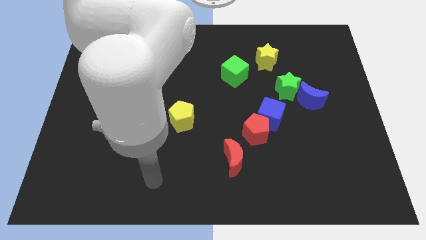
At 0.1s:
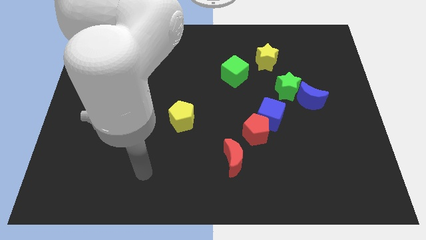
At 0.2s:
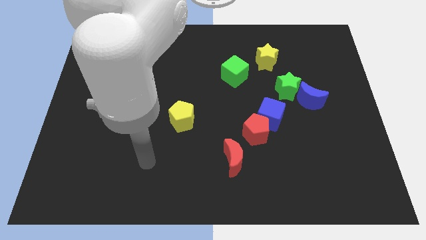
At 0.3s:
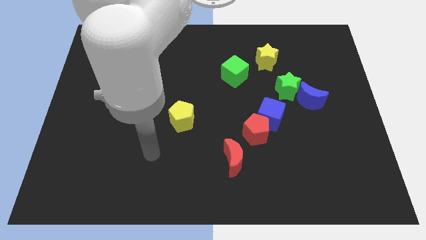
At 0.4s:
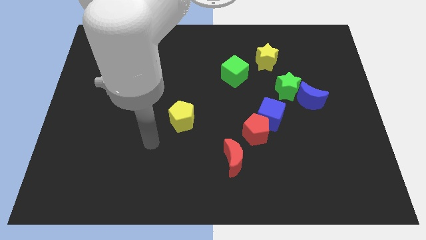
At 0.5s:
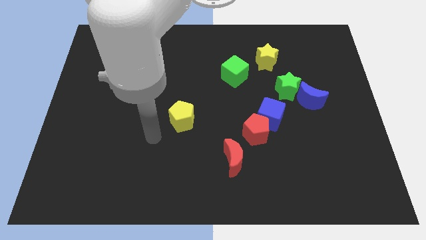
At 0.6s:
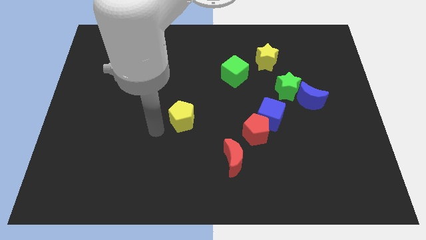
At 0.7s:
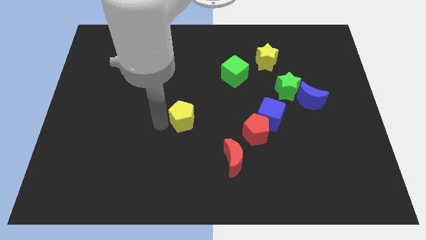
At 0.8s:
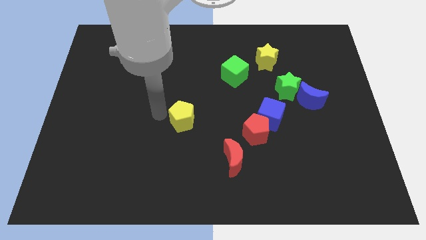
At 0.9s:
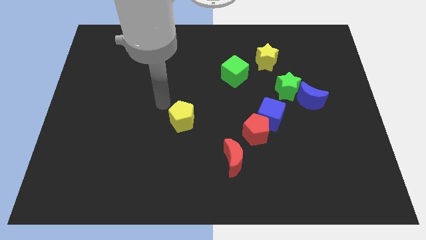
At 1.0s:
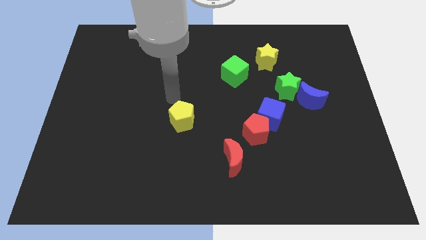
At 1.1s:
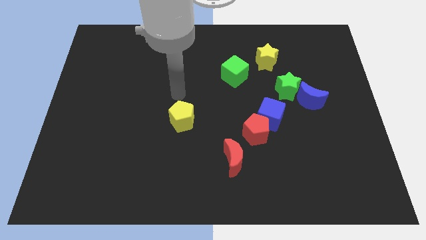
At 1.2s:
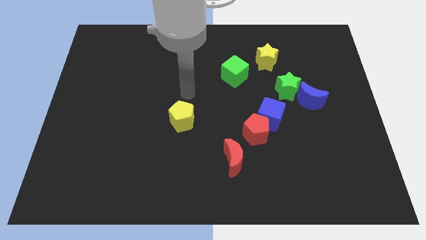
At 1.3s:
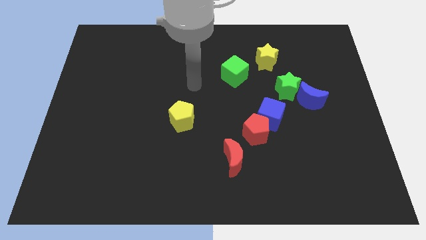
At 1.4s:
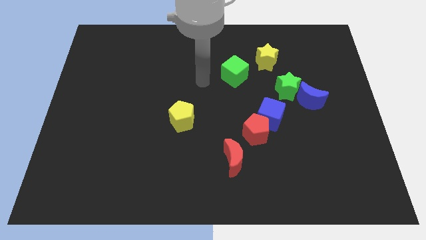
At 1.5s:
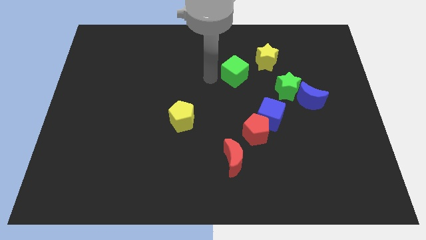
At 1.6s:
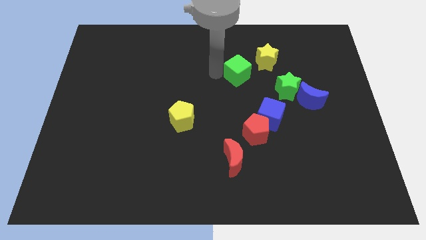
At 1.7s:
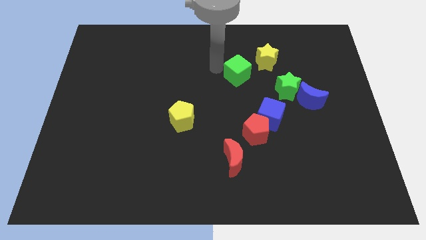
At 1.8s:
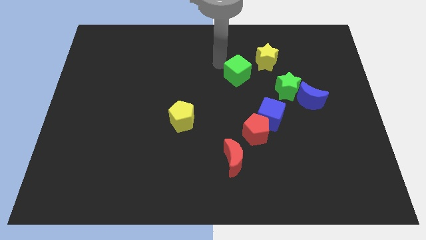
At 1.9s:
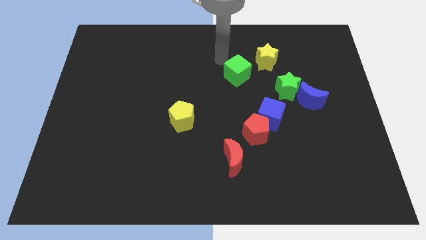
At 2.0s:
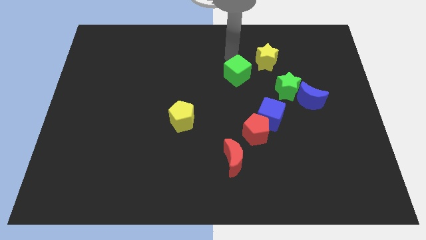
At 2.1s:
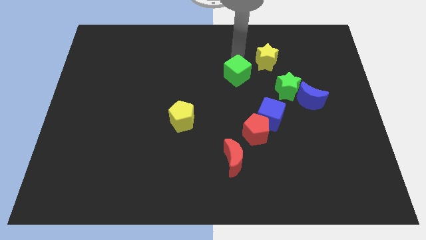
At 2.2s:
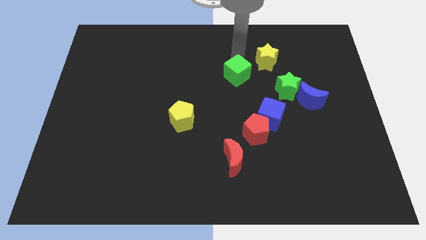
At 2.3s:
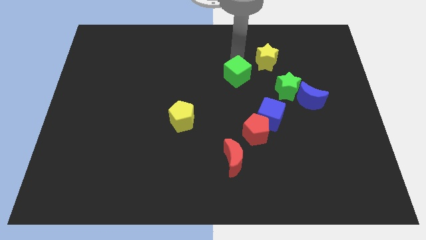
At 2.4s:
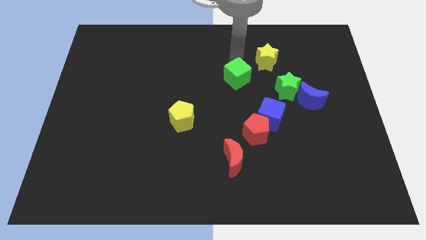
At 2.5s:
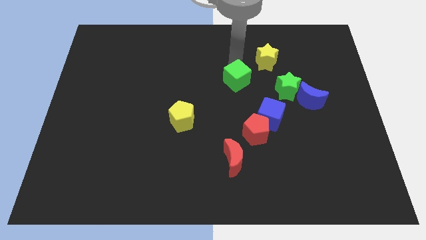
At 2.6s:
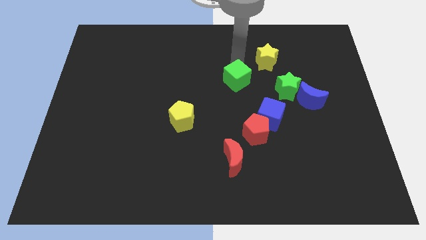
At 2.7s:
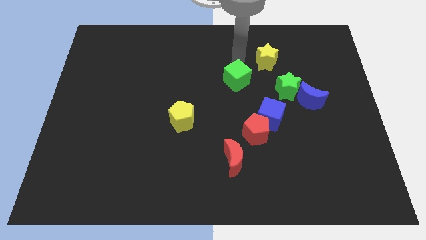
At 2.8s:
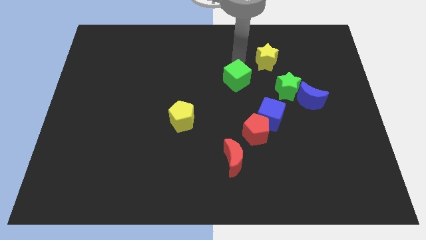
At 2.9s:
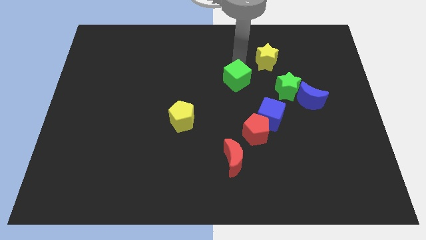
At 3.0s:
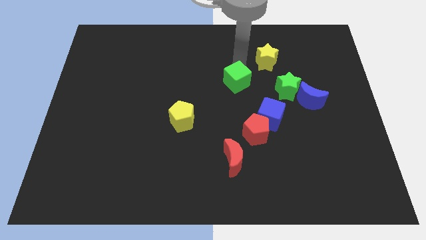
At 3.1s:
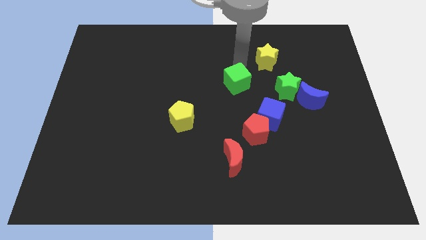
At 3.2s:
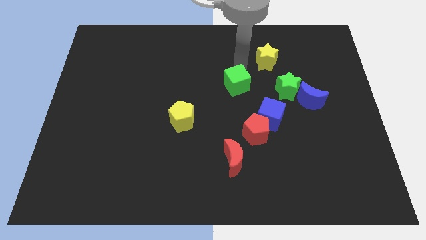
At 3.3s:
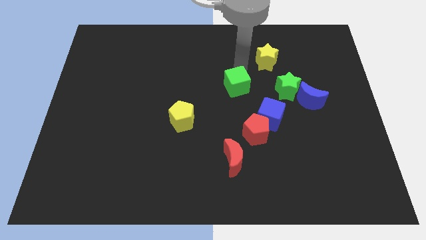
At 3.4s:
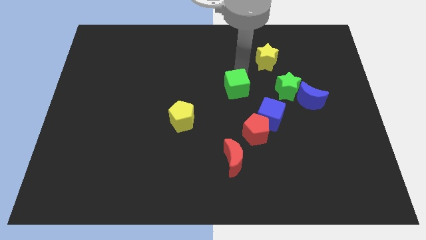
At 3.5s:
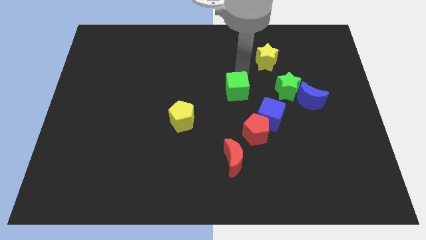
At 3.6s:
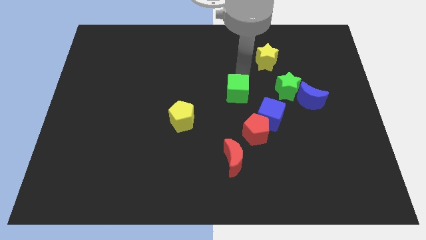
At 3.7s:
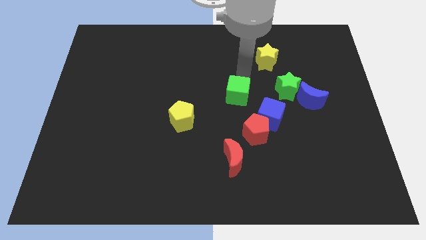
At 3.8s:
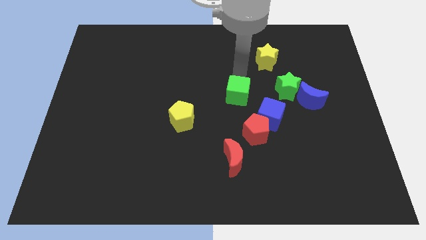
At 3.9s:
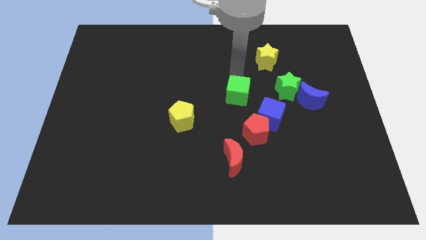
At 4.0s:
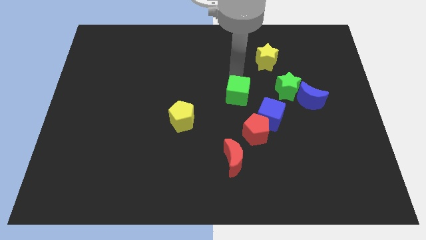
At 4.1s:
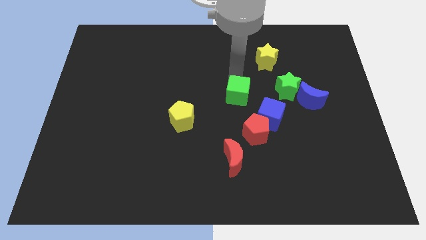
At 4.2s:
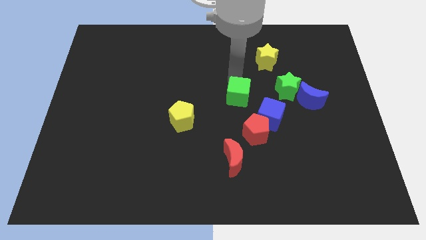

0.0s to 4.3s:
push the green cube slightly down

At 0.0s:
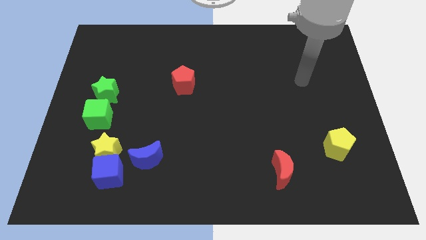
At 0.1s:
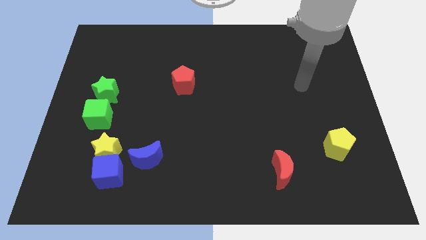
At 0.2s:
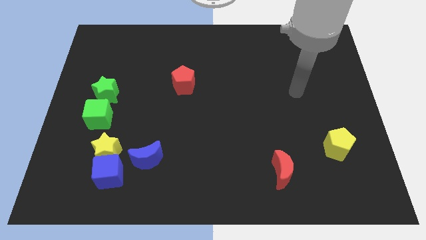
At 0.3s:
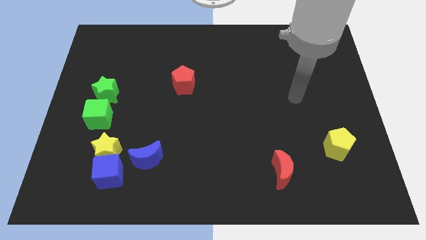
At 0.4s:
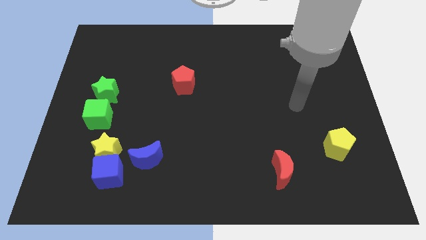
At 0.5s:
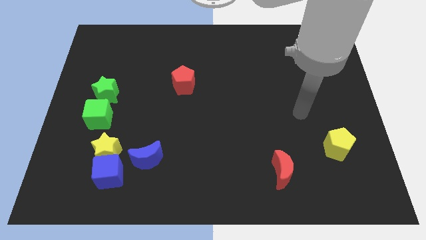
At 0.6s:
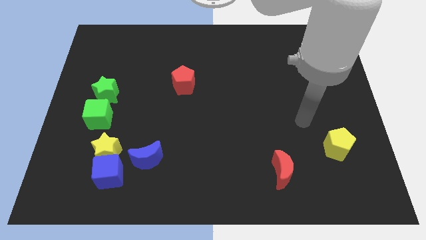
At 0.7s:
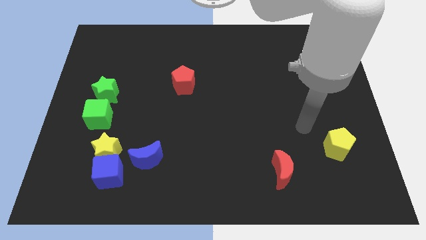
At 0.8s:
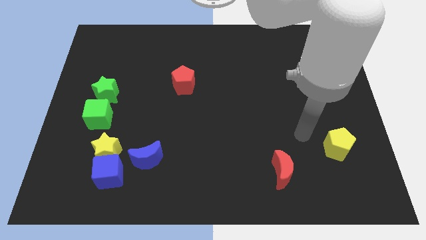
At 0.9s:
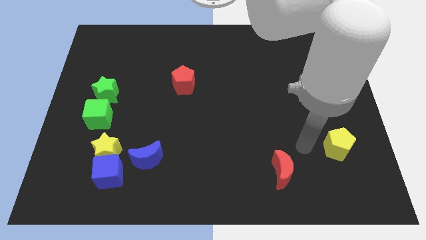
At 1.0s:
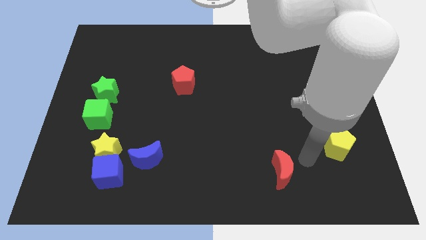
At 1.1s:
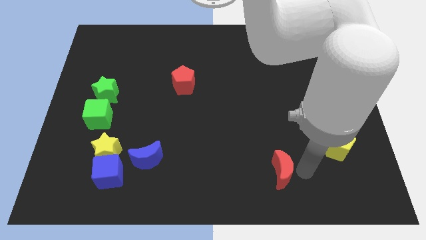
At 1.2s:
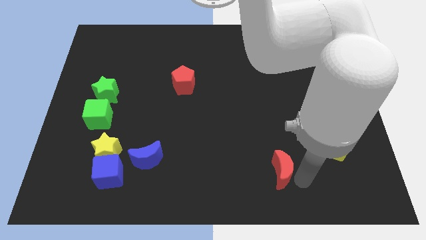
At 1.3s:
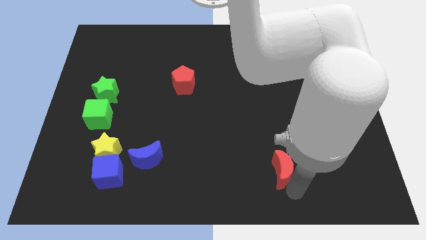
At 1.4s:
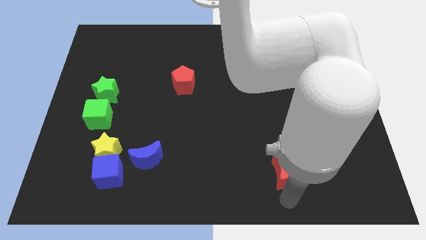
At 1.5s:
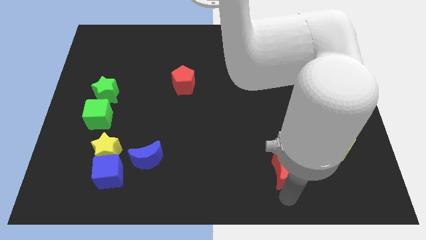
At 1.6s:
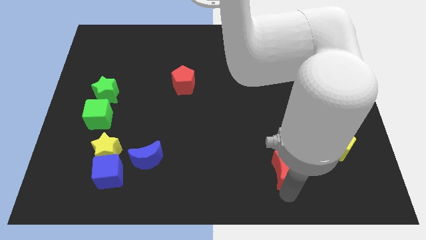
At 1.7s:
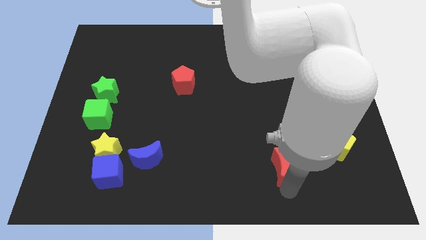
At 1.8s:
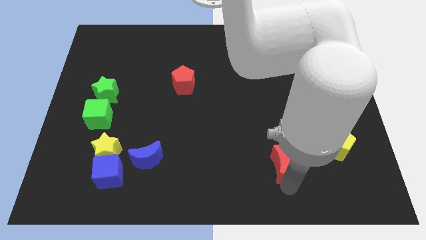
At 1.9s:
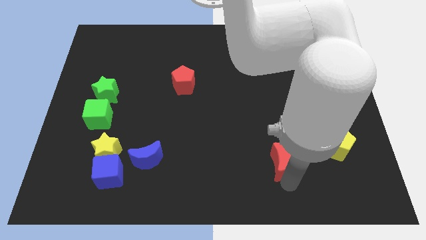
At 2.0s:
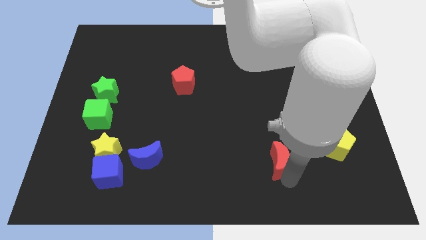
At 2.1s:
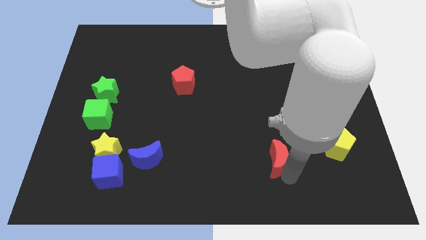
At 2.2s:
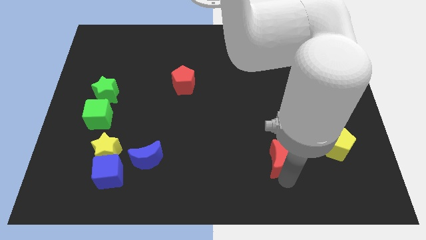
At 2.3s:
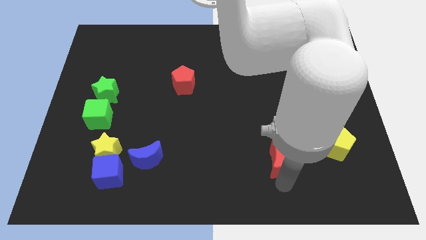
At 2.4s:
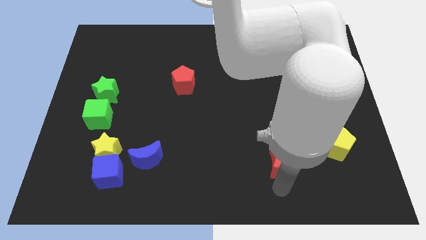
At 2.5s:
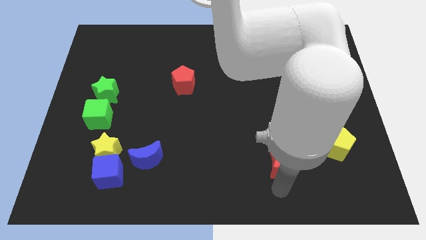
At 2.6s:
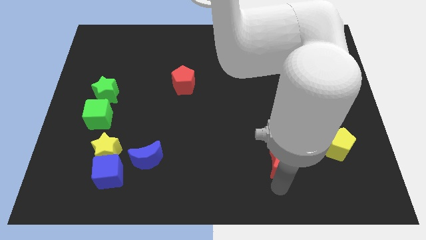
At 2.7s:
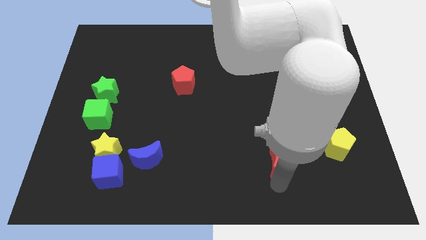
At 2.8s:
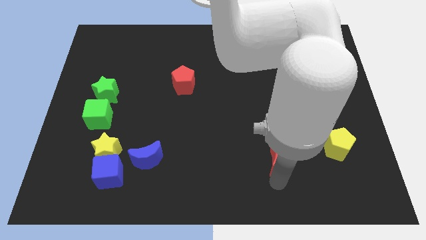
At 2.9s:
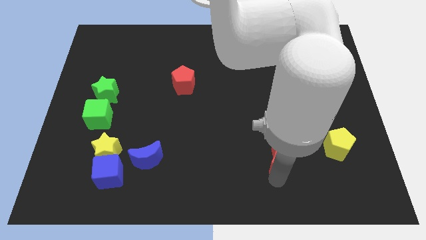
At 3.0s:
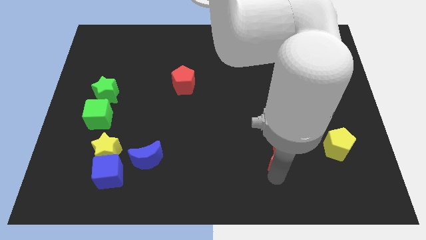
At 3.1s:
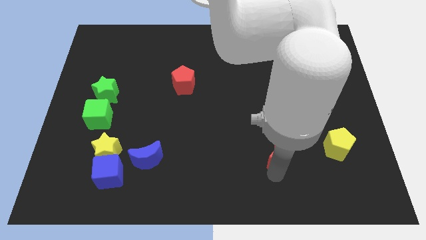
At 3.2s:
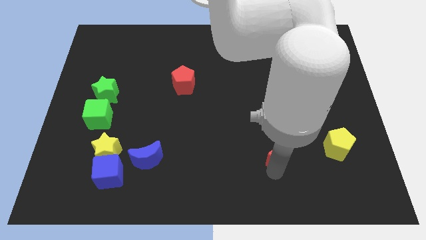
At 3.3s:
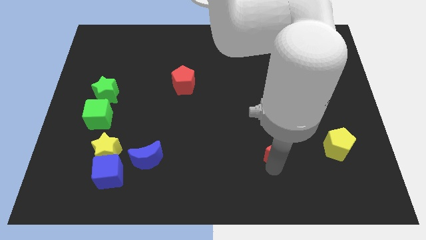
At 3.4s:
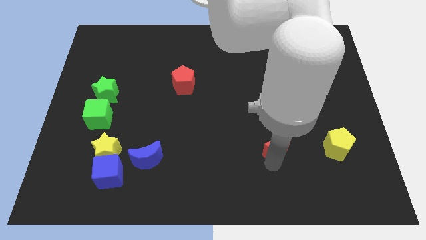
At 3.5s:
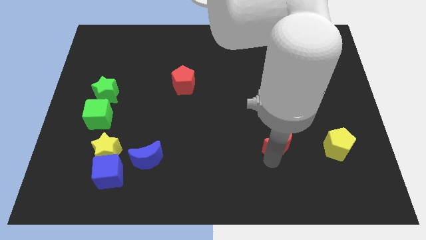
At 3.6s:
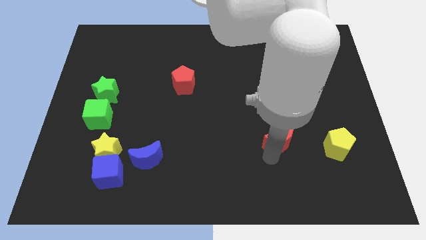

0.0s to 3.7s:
move the red moon upwards a bit

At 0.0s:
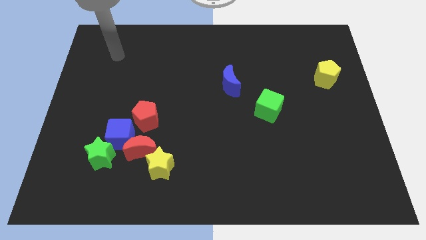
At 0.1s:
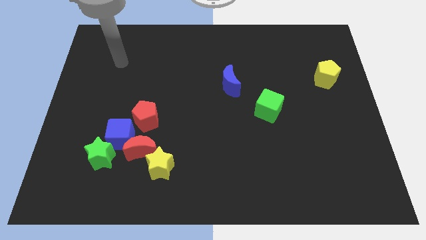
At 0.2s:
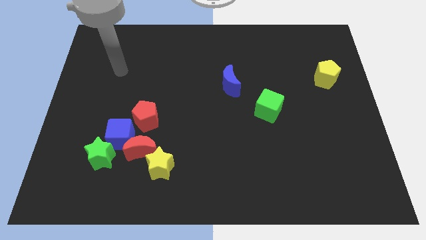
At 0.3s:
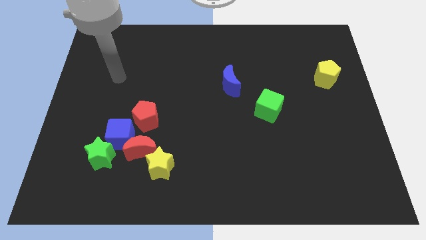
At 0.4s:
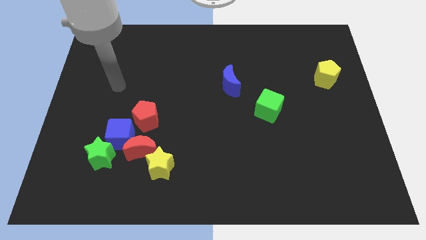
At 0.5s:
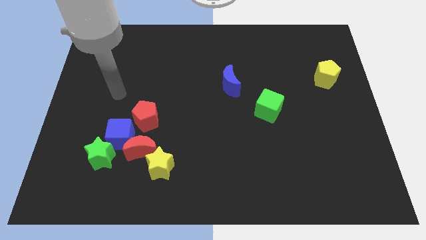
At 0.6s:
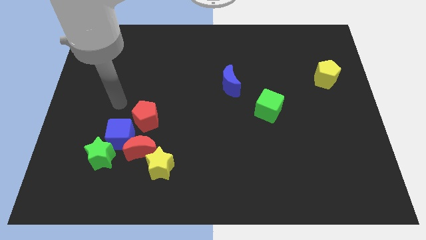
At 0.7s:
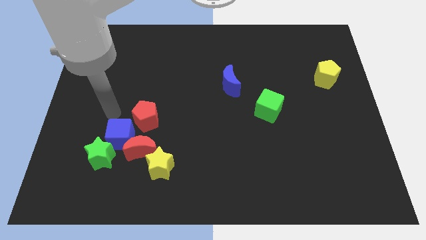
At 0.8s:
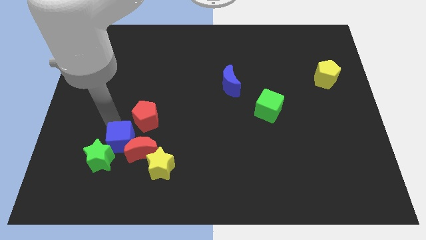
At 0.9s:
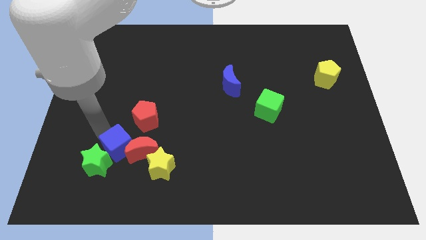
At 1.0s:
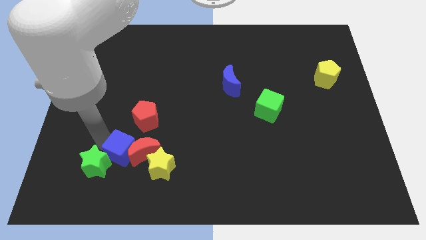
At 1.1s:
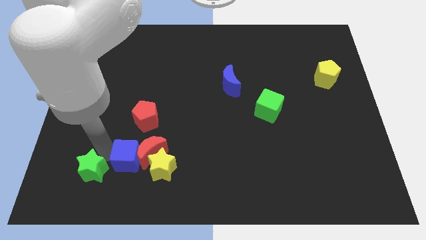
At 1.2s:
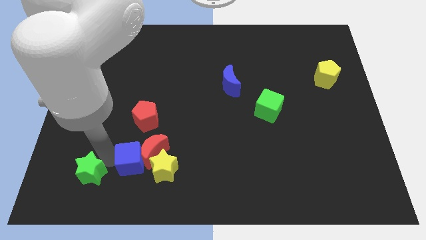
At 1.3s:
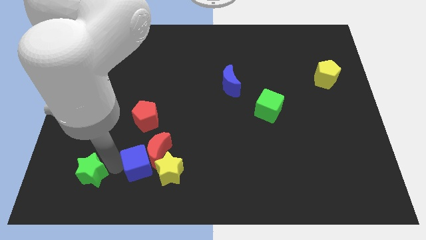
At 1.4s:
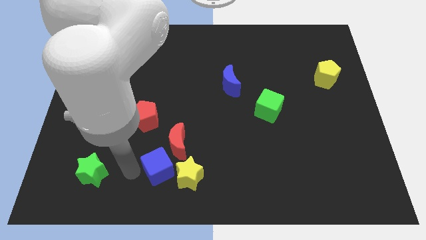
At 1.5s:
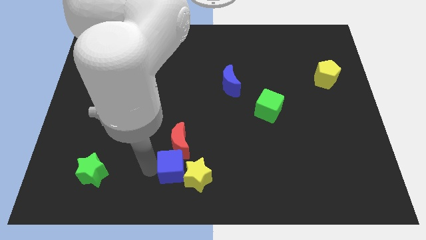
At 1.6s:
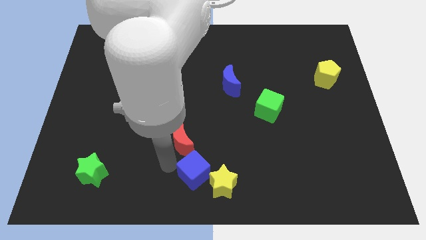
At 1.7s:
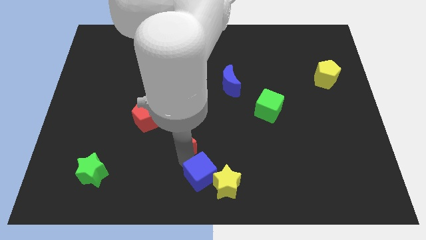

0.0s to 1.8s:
slide the red moon a little upwards and to the right diagonally
